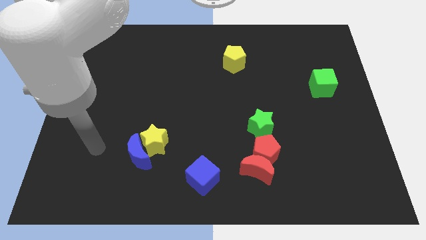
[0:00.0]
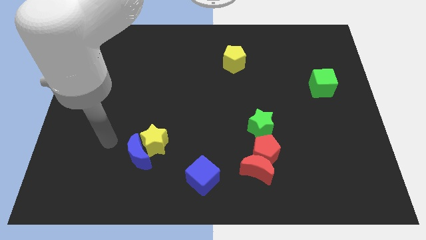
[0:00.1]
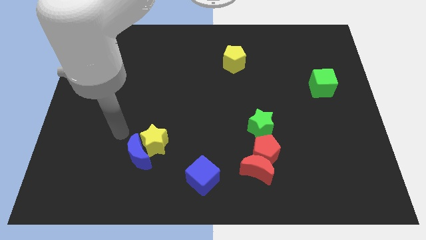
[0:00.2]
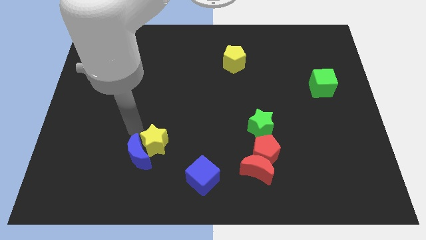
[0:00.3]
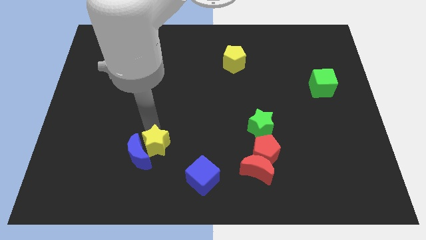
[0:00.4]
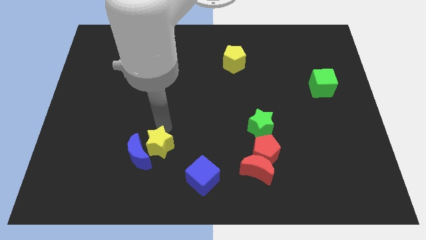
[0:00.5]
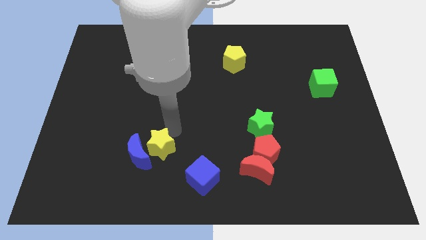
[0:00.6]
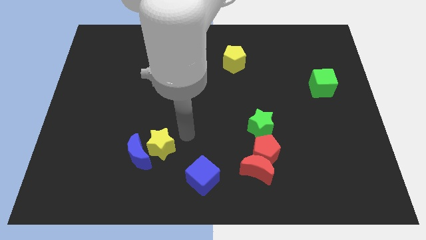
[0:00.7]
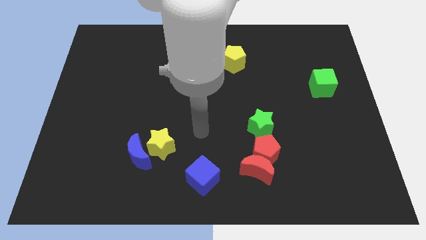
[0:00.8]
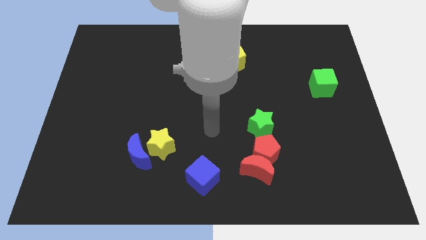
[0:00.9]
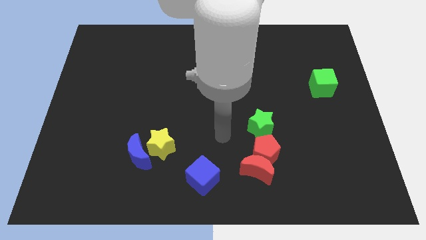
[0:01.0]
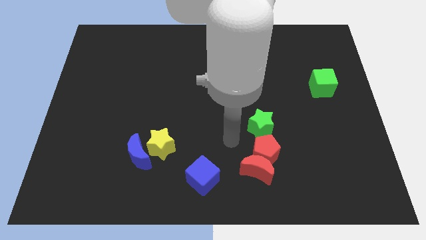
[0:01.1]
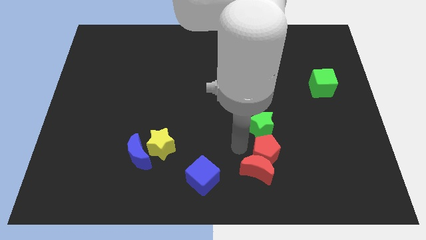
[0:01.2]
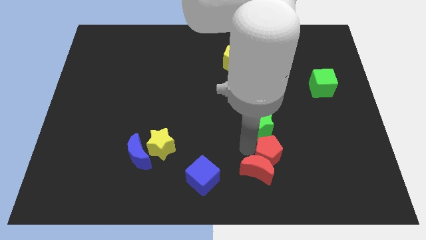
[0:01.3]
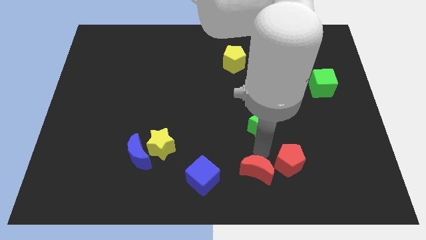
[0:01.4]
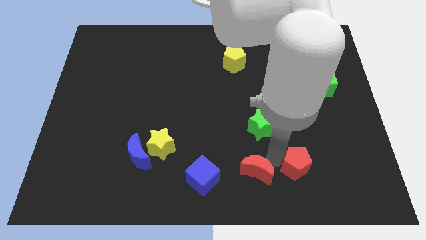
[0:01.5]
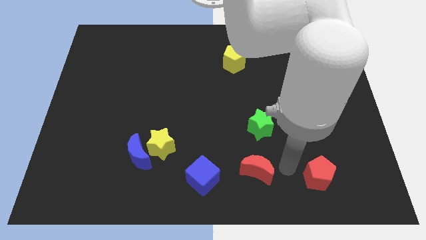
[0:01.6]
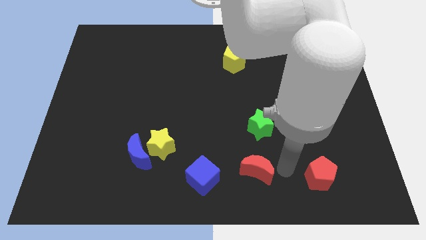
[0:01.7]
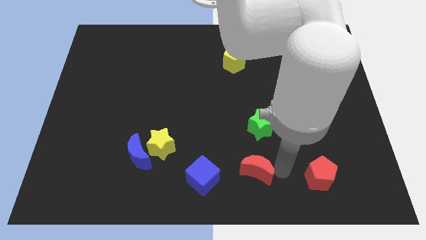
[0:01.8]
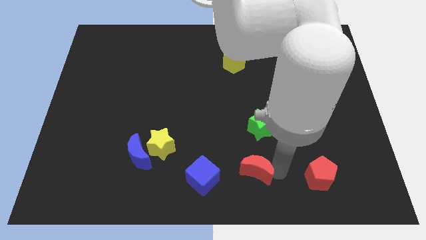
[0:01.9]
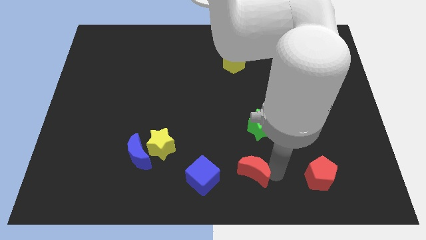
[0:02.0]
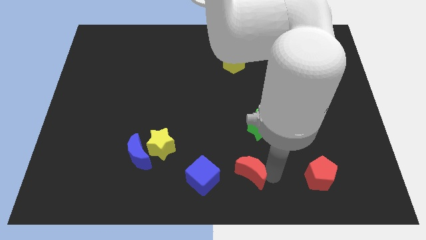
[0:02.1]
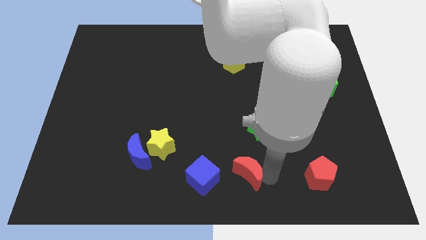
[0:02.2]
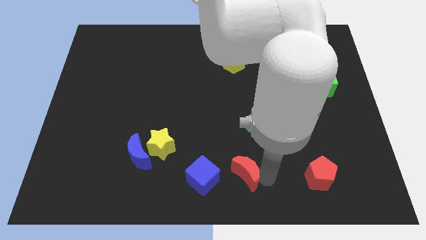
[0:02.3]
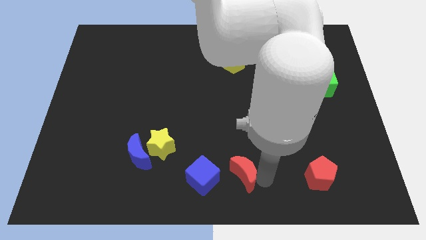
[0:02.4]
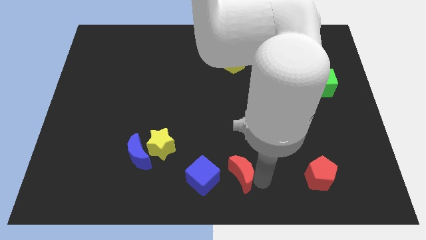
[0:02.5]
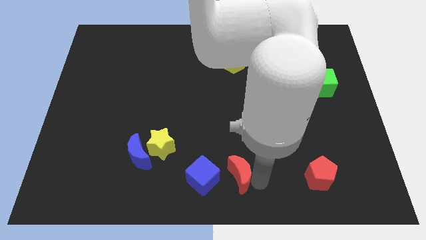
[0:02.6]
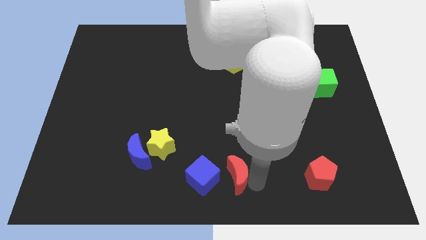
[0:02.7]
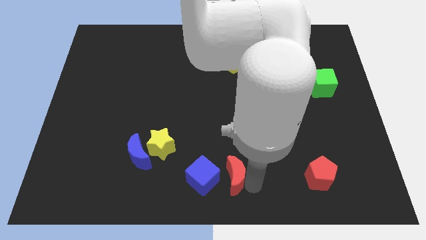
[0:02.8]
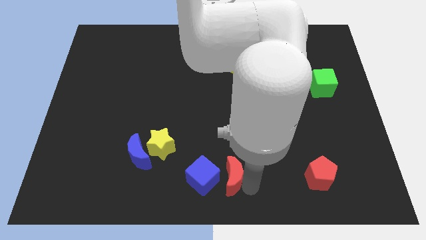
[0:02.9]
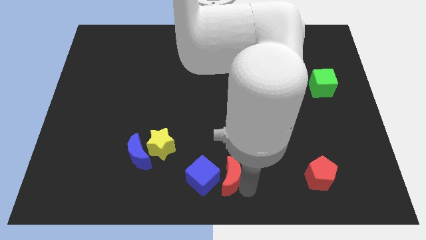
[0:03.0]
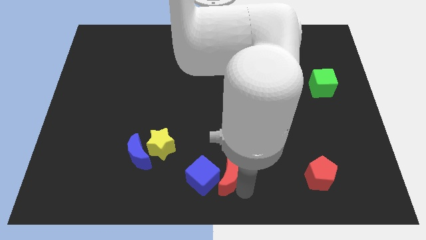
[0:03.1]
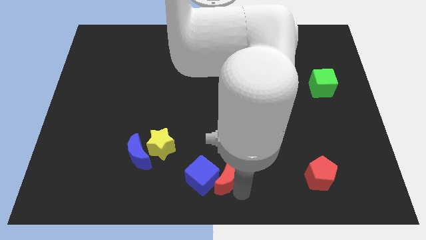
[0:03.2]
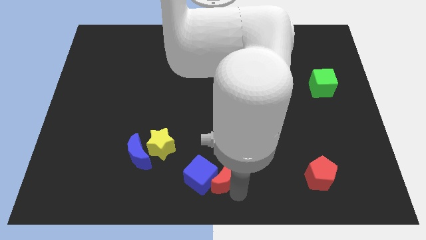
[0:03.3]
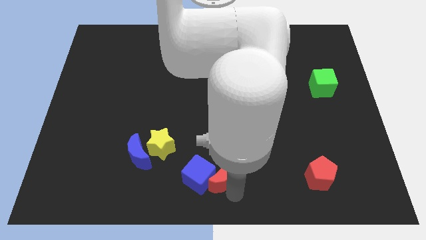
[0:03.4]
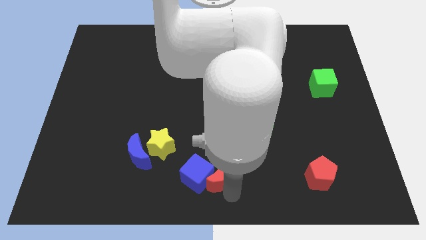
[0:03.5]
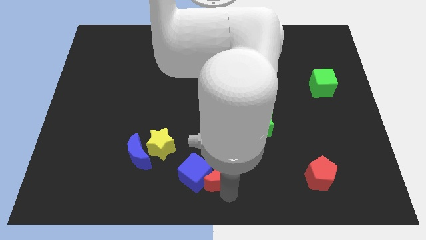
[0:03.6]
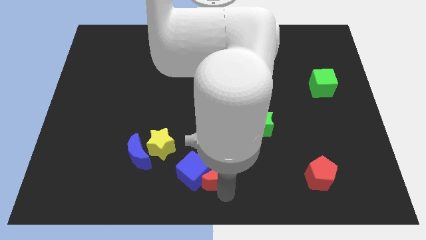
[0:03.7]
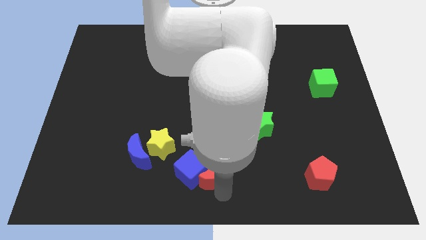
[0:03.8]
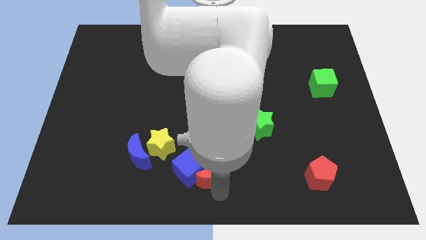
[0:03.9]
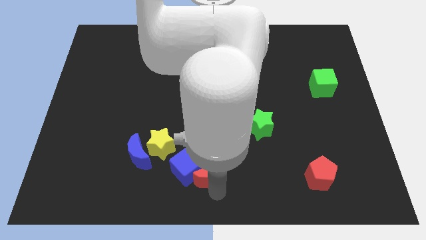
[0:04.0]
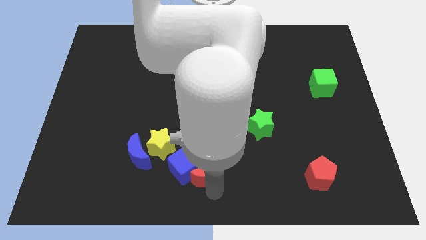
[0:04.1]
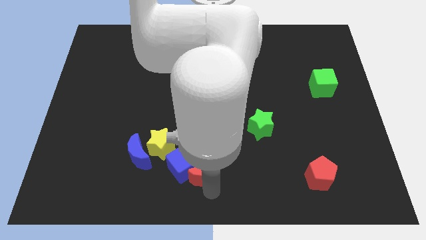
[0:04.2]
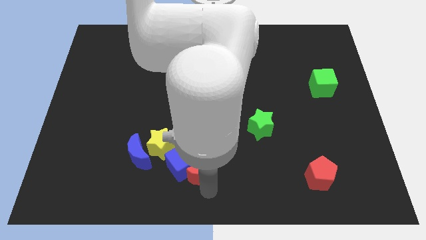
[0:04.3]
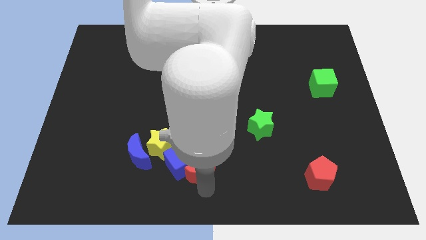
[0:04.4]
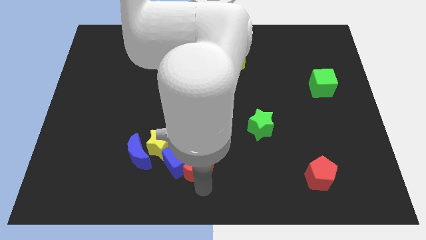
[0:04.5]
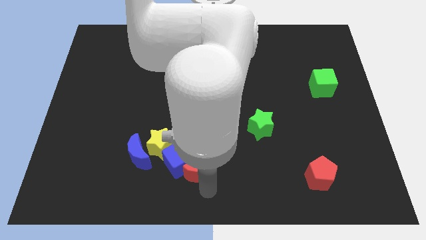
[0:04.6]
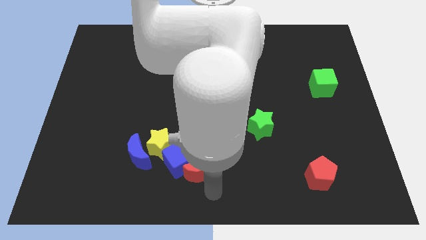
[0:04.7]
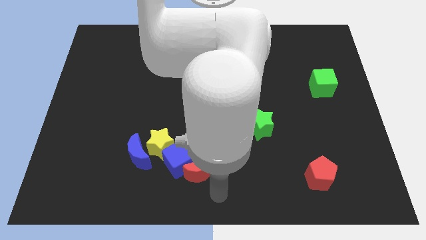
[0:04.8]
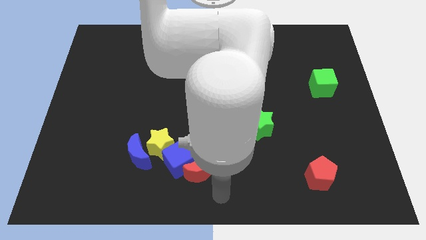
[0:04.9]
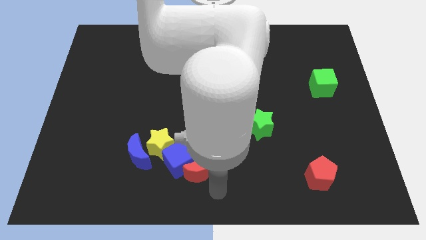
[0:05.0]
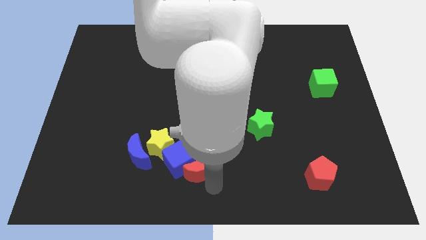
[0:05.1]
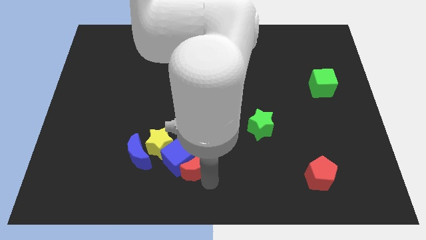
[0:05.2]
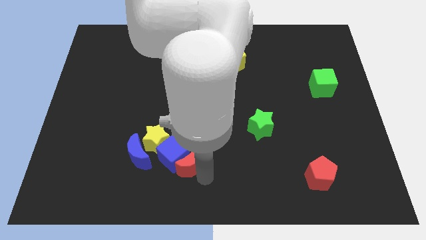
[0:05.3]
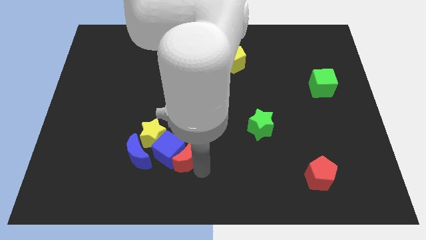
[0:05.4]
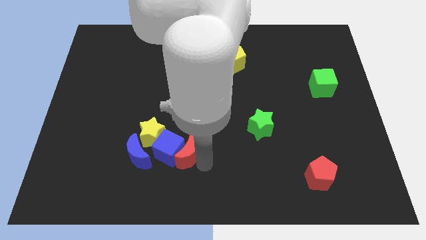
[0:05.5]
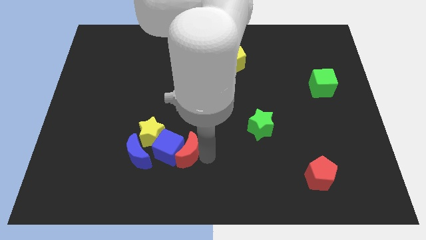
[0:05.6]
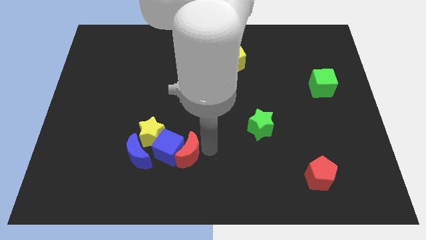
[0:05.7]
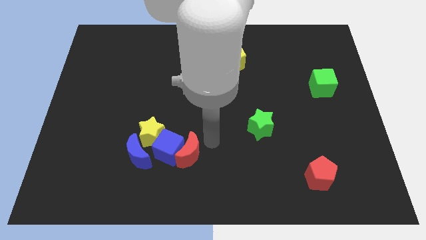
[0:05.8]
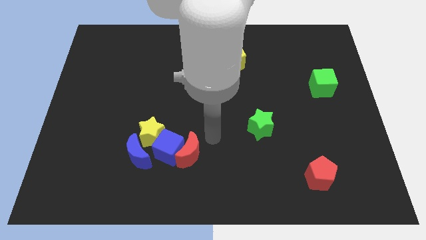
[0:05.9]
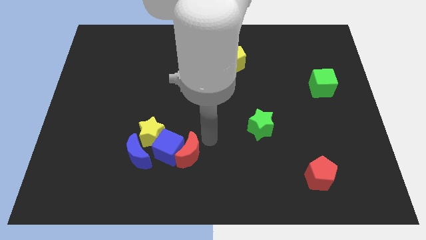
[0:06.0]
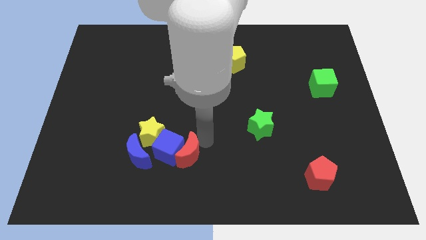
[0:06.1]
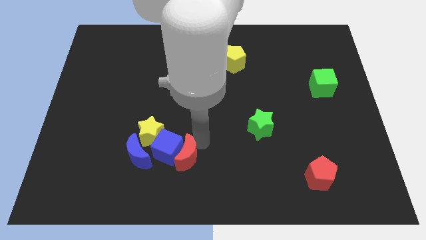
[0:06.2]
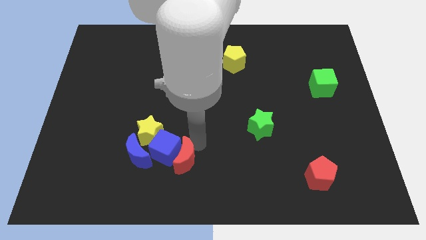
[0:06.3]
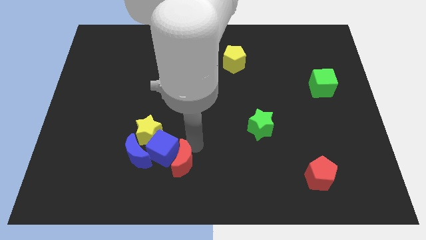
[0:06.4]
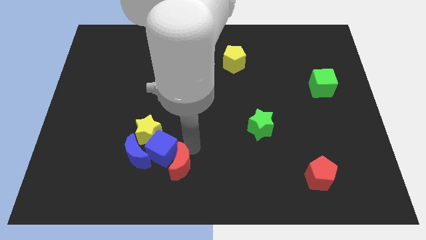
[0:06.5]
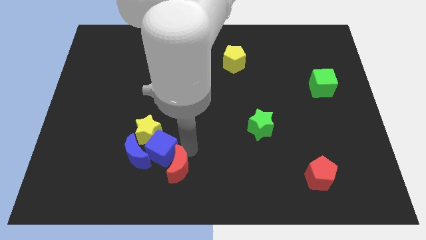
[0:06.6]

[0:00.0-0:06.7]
slide the red moon to the bottom right side of the blue moon
